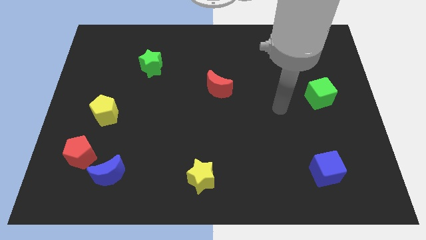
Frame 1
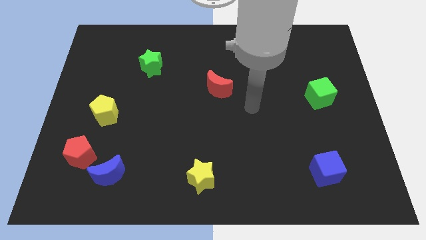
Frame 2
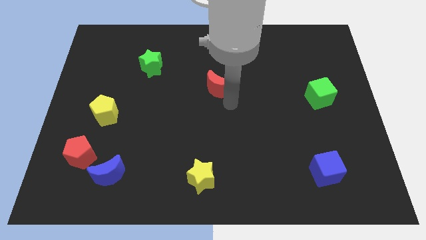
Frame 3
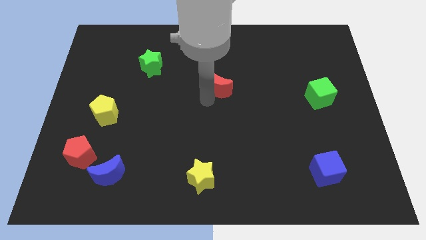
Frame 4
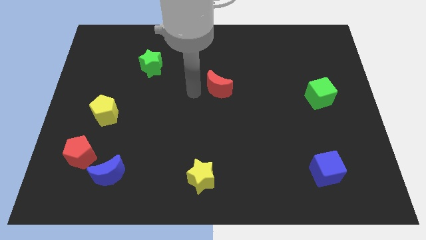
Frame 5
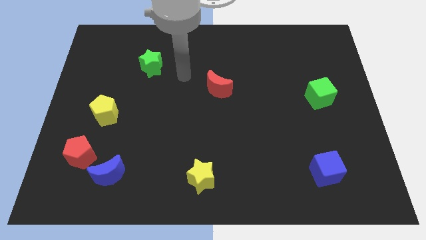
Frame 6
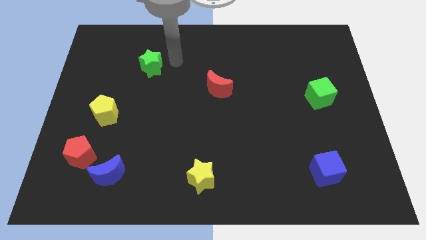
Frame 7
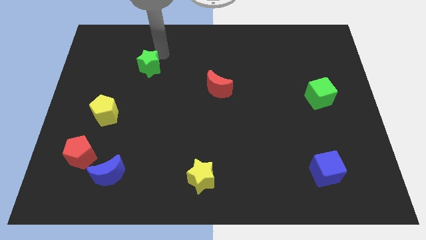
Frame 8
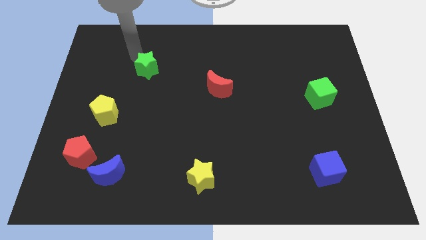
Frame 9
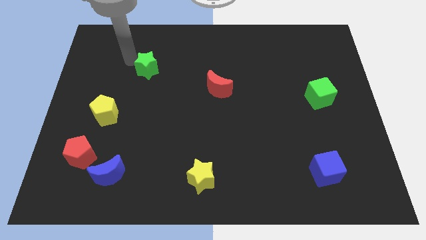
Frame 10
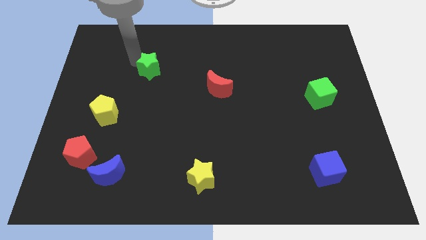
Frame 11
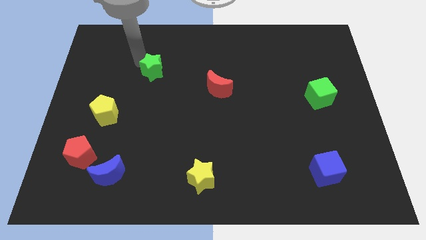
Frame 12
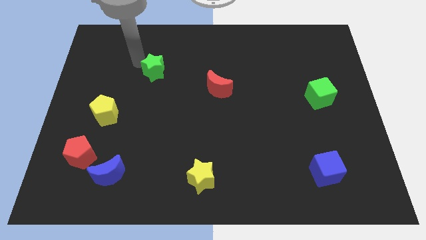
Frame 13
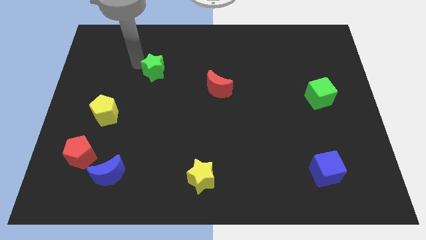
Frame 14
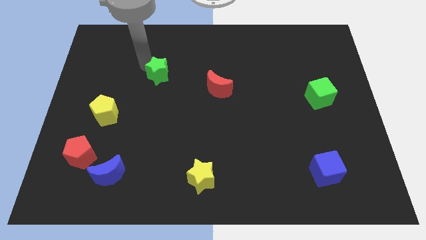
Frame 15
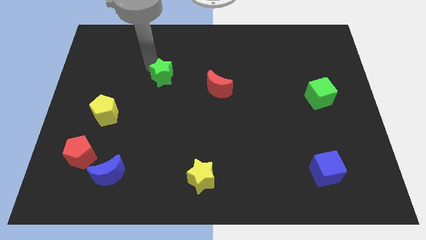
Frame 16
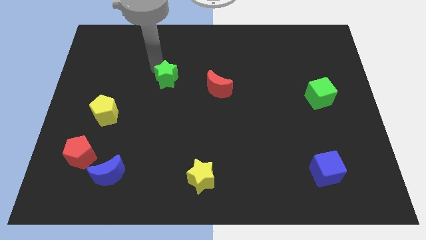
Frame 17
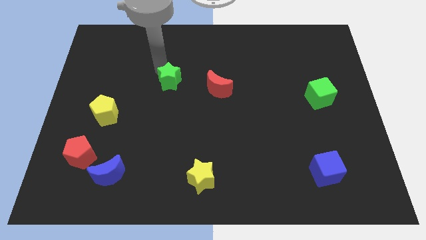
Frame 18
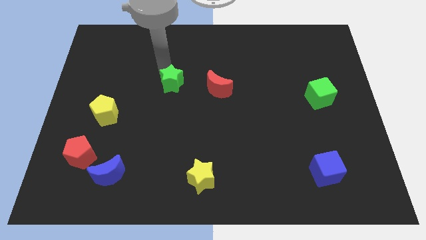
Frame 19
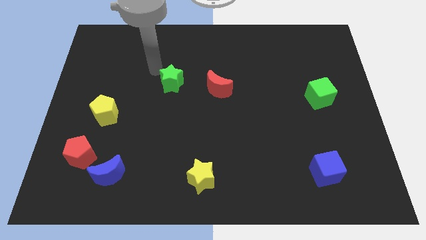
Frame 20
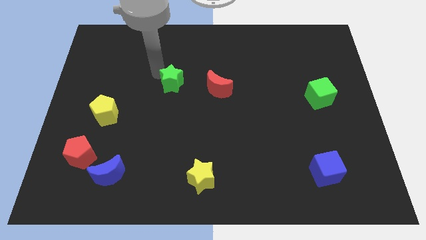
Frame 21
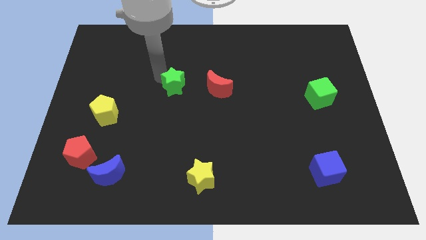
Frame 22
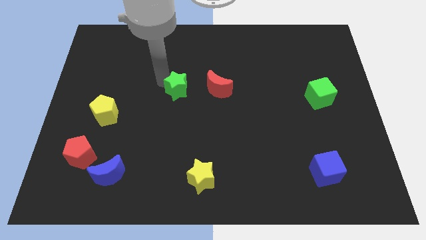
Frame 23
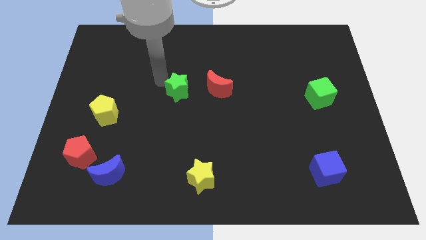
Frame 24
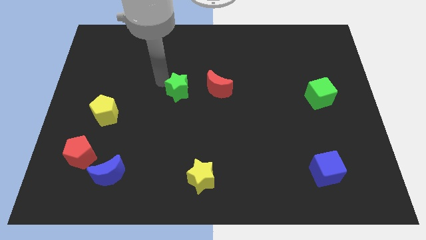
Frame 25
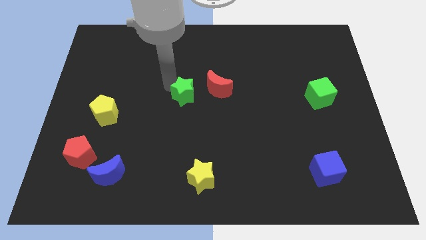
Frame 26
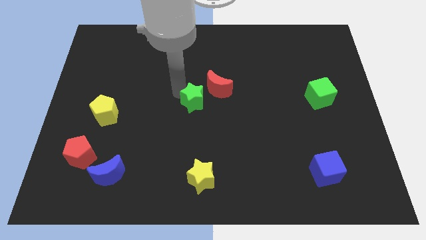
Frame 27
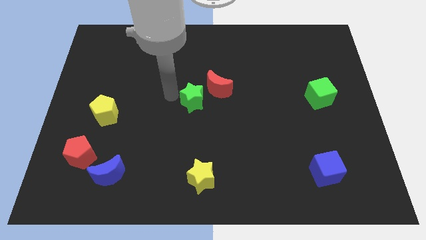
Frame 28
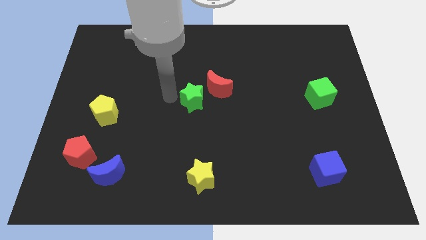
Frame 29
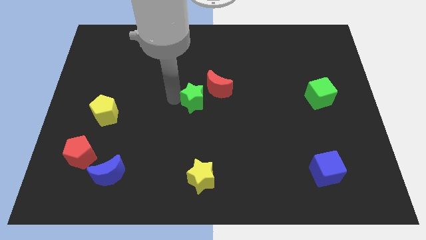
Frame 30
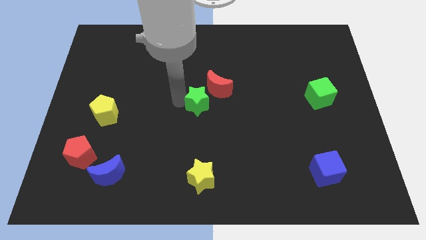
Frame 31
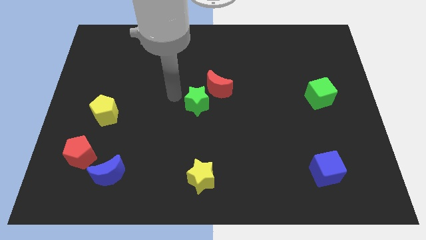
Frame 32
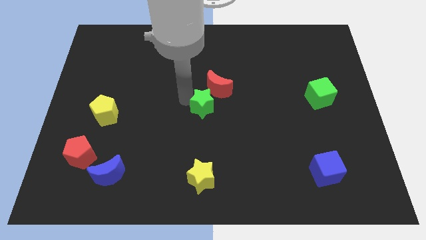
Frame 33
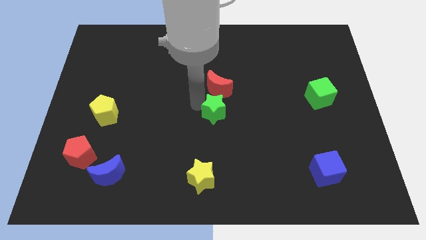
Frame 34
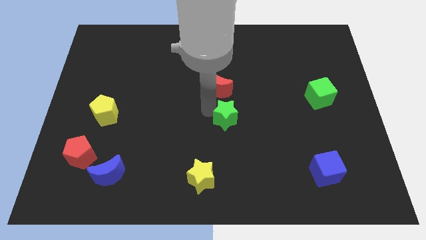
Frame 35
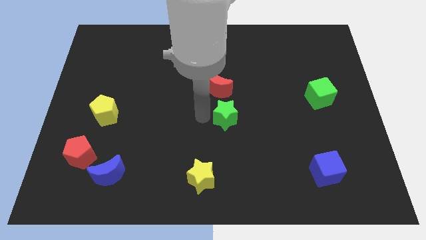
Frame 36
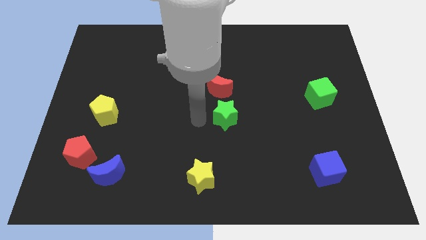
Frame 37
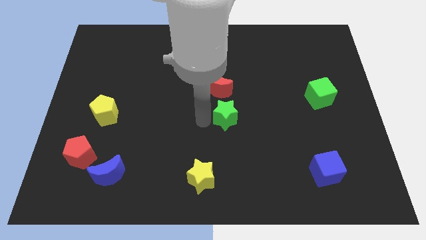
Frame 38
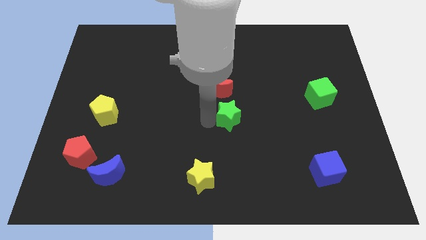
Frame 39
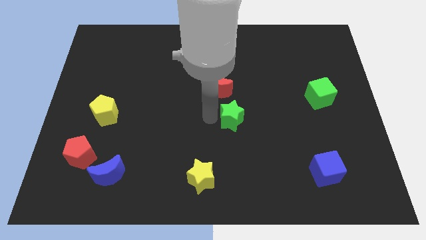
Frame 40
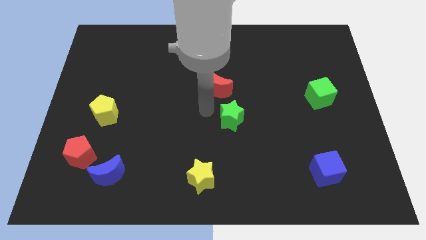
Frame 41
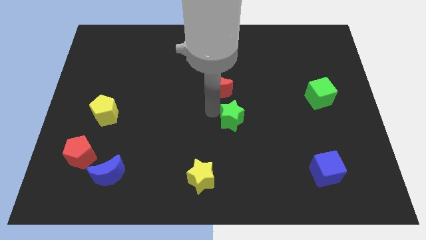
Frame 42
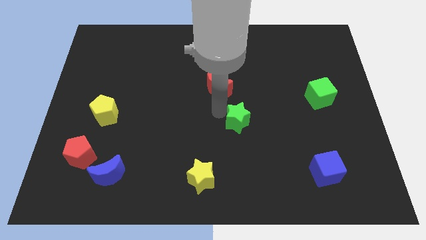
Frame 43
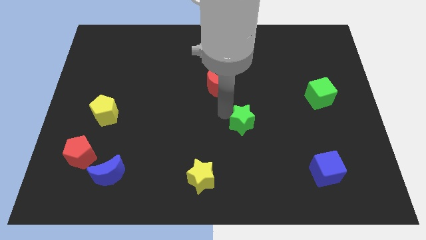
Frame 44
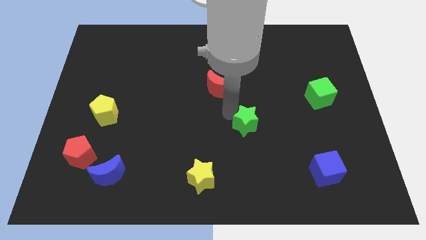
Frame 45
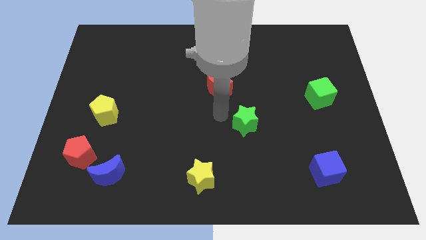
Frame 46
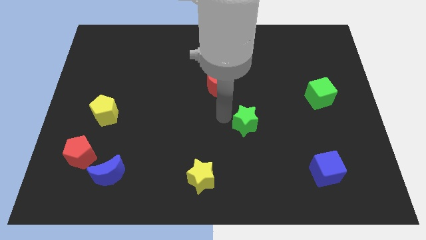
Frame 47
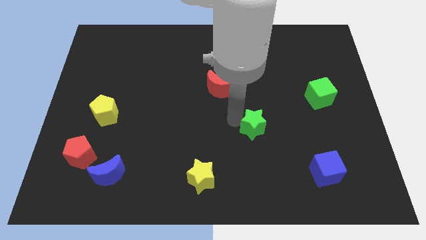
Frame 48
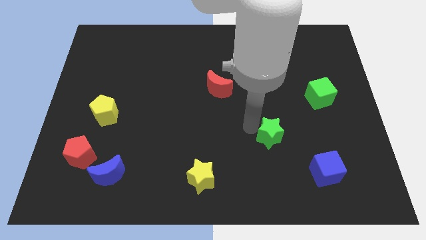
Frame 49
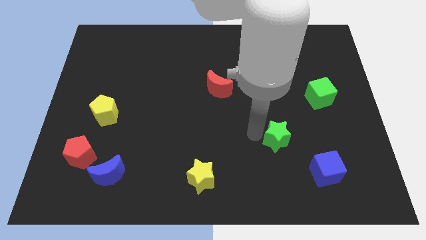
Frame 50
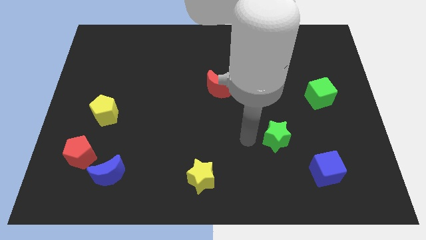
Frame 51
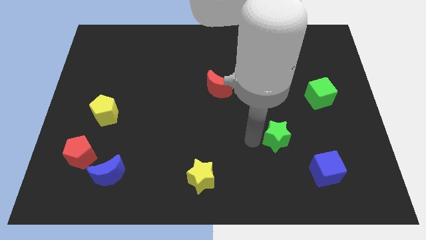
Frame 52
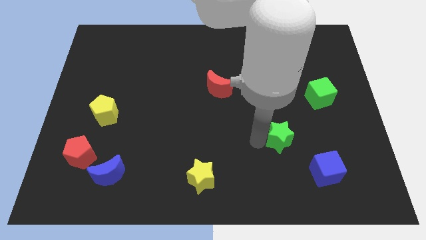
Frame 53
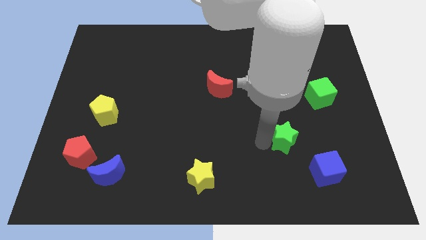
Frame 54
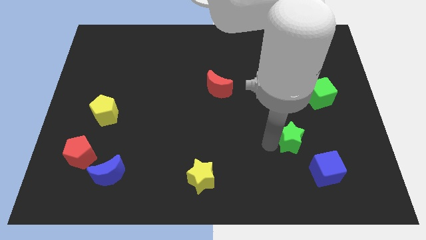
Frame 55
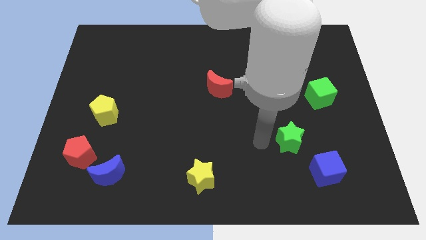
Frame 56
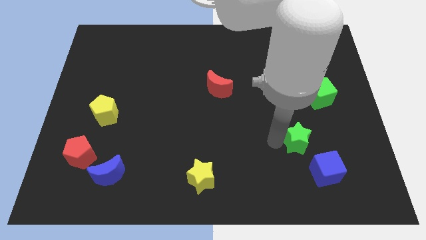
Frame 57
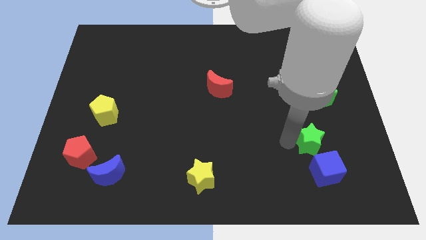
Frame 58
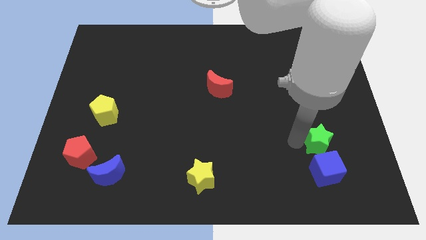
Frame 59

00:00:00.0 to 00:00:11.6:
put the green star to the top right side of the blue cube

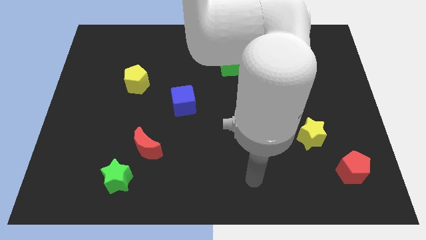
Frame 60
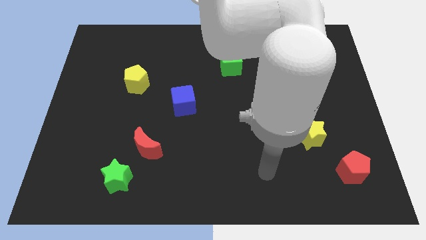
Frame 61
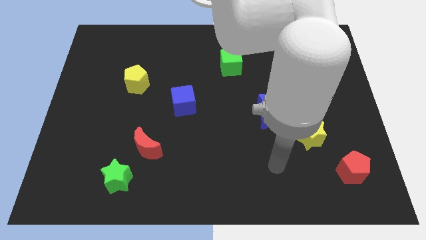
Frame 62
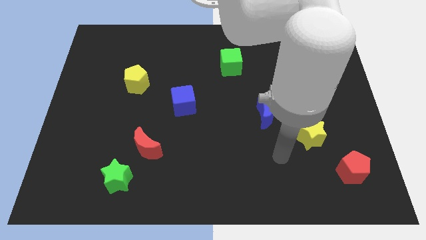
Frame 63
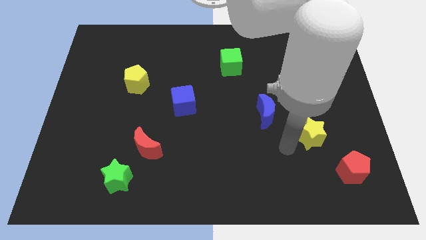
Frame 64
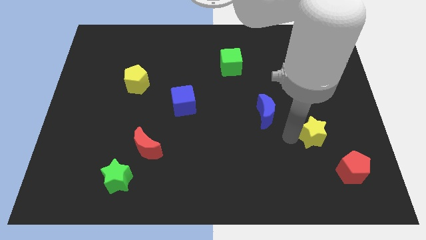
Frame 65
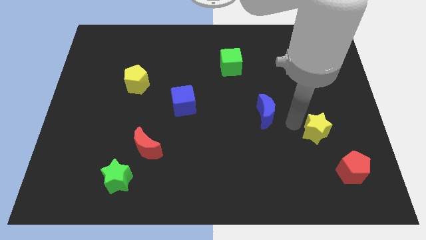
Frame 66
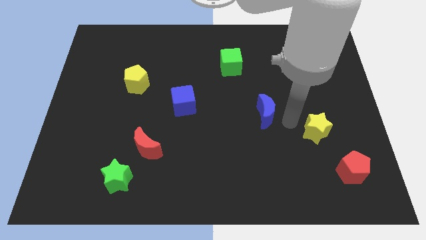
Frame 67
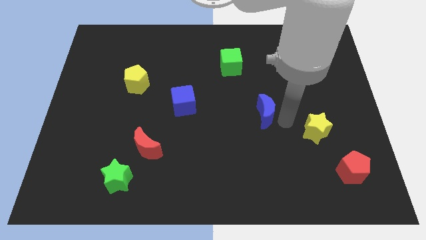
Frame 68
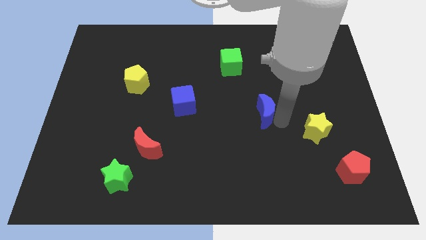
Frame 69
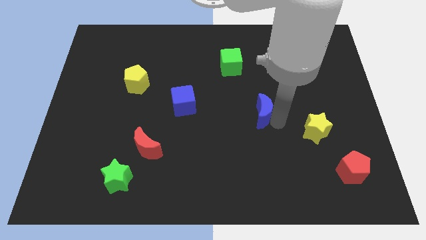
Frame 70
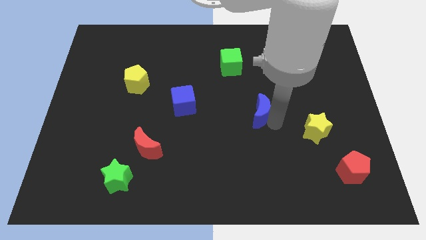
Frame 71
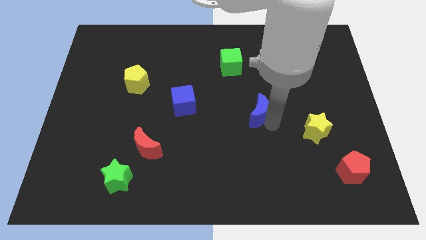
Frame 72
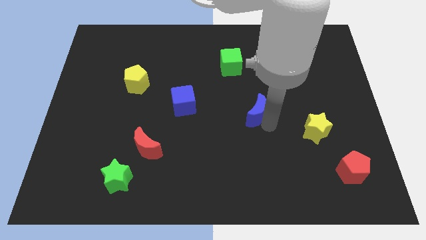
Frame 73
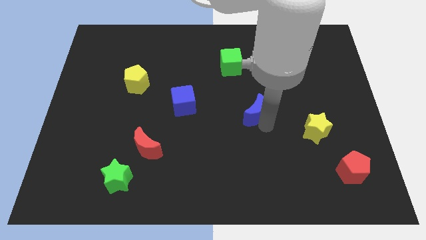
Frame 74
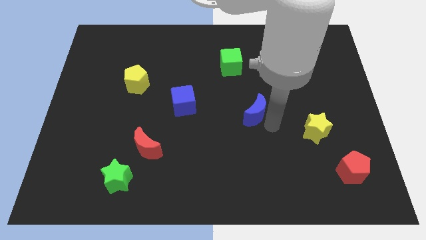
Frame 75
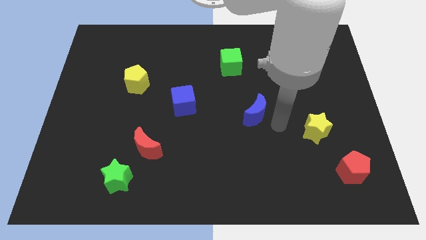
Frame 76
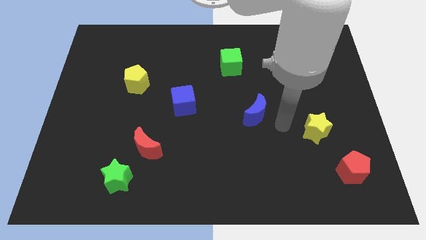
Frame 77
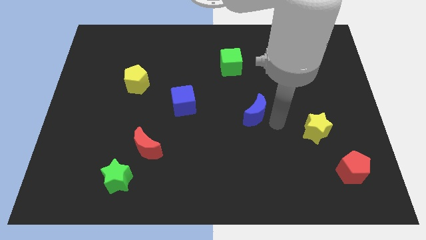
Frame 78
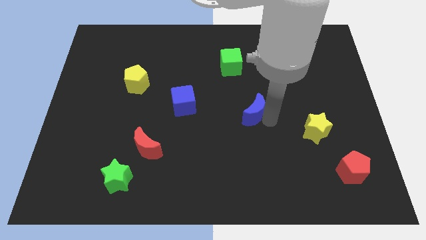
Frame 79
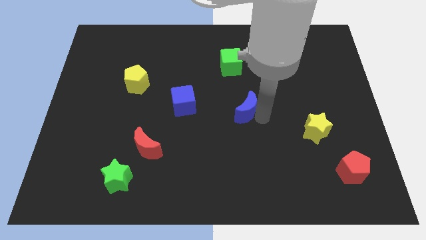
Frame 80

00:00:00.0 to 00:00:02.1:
put the blue moon to the right side of the blue cube
